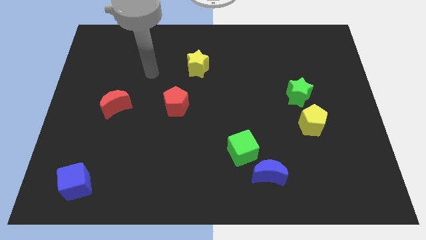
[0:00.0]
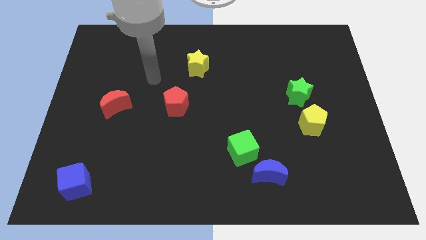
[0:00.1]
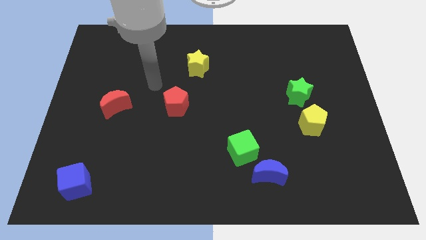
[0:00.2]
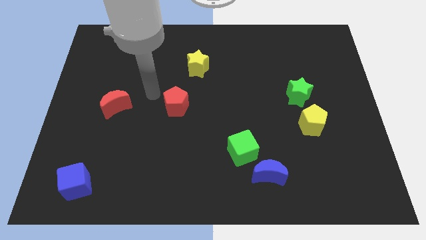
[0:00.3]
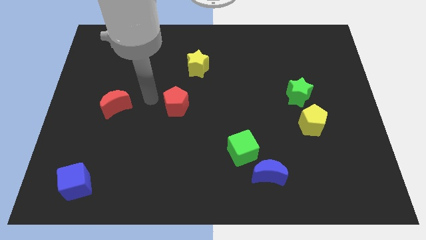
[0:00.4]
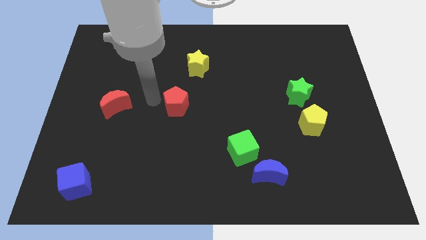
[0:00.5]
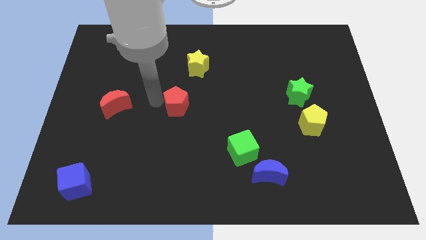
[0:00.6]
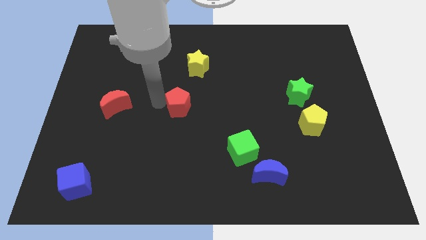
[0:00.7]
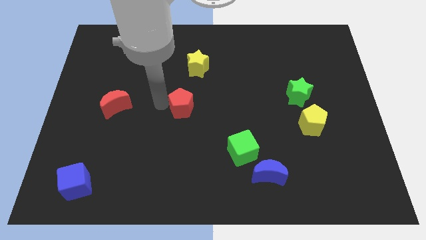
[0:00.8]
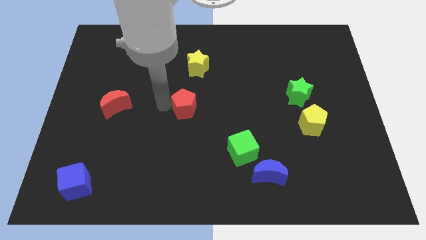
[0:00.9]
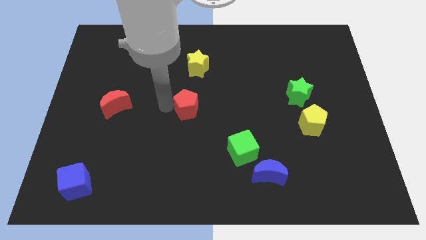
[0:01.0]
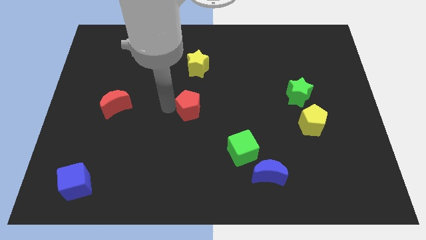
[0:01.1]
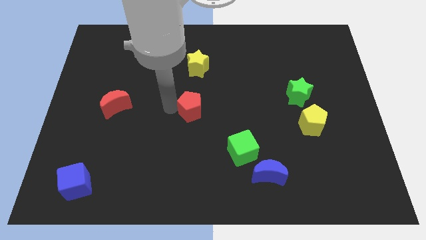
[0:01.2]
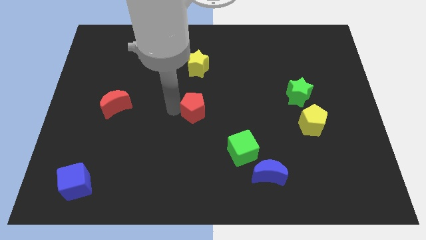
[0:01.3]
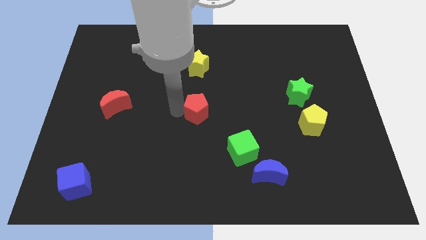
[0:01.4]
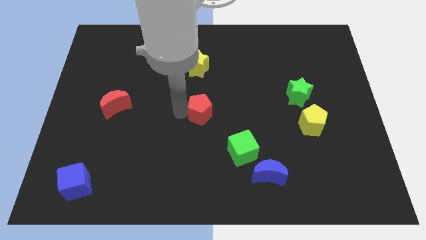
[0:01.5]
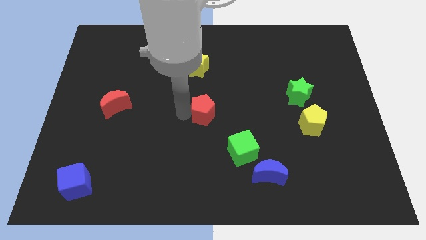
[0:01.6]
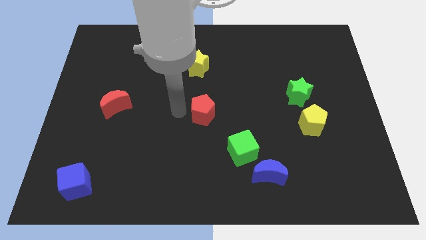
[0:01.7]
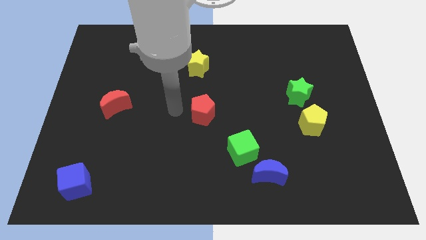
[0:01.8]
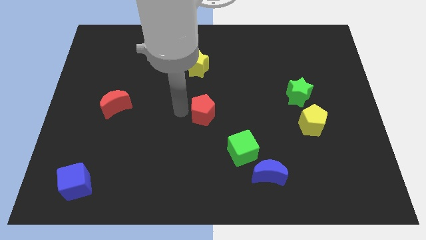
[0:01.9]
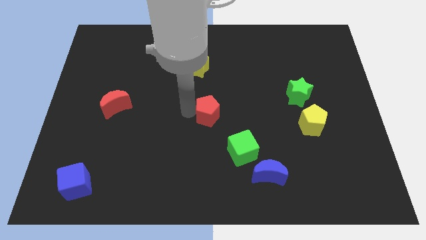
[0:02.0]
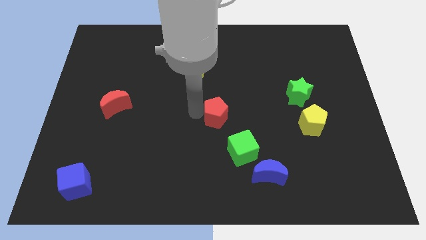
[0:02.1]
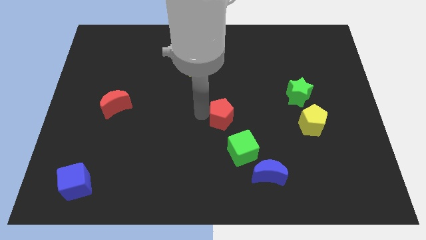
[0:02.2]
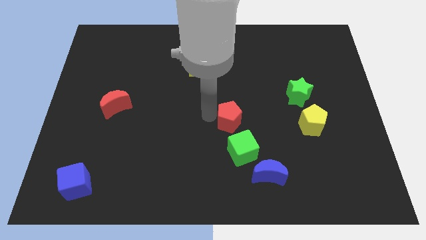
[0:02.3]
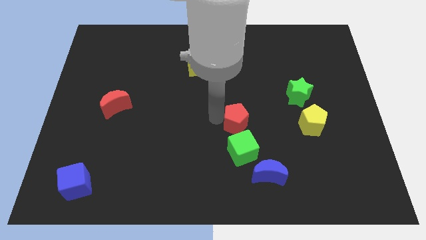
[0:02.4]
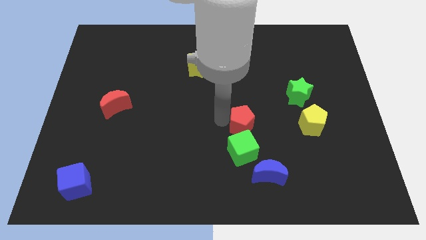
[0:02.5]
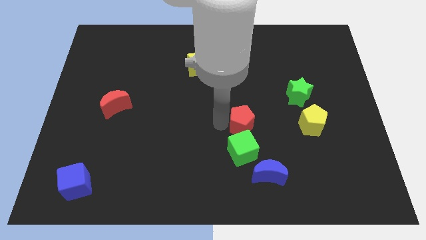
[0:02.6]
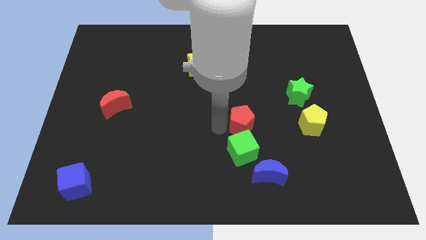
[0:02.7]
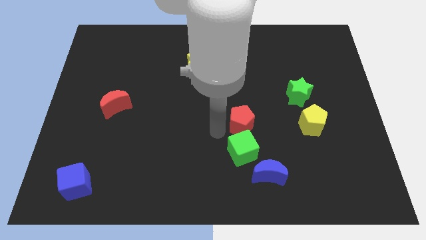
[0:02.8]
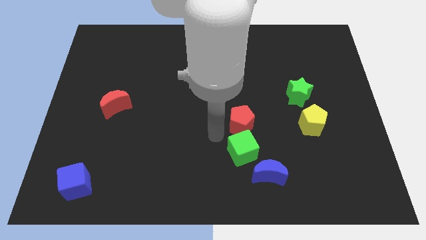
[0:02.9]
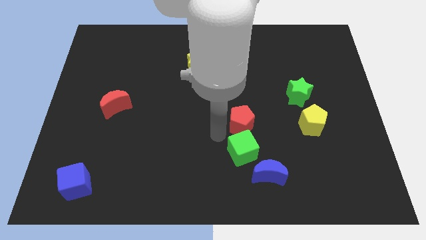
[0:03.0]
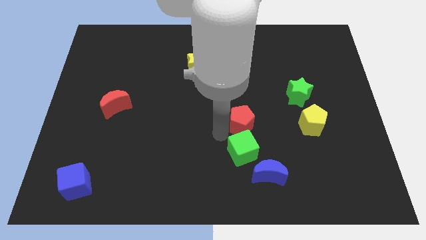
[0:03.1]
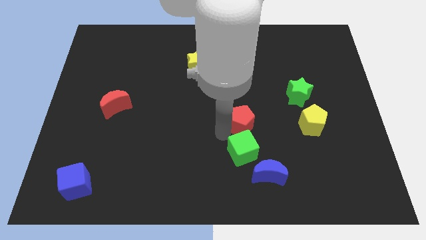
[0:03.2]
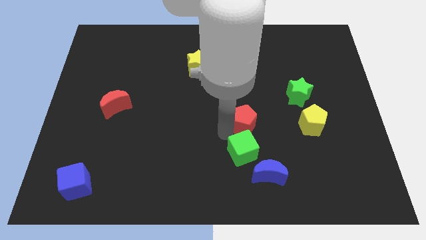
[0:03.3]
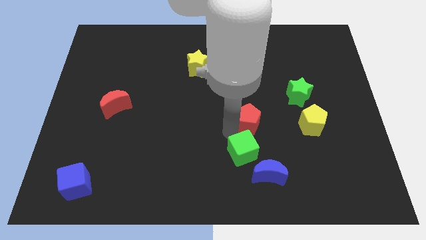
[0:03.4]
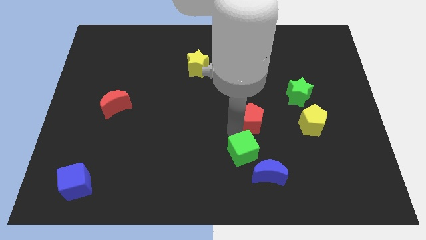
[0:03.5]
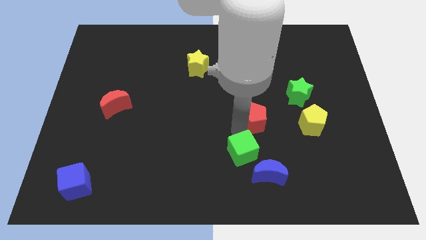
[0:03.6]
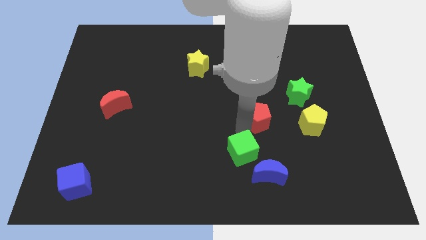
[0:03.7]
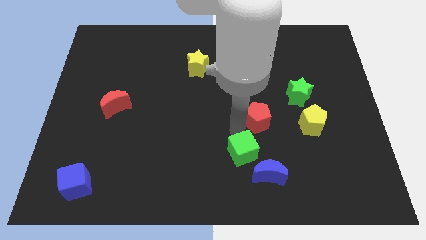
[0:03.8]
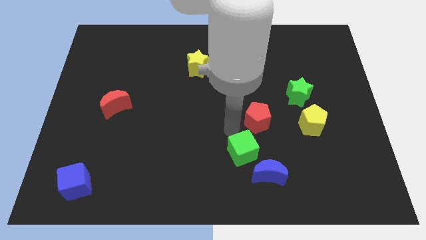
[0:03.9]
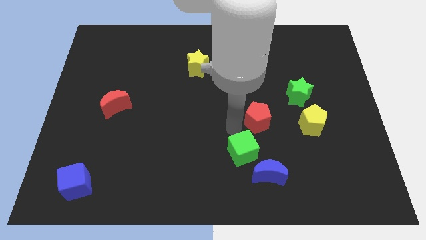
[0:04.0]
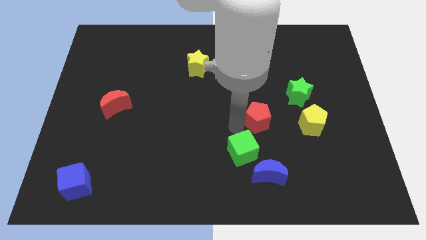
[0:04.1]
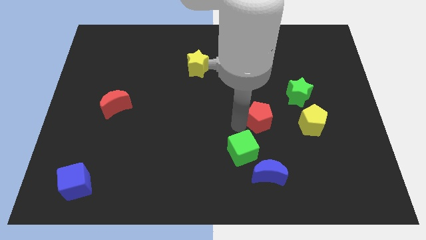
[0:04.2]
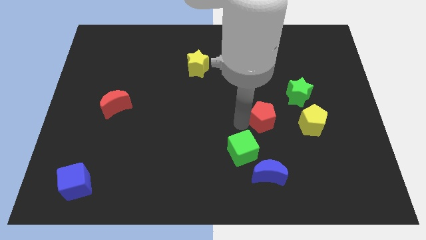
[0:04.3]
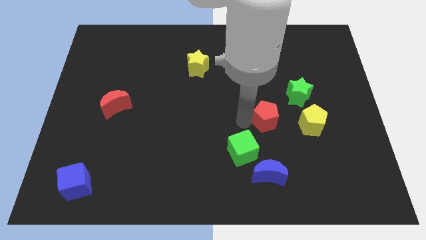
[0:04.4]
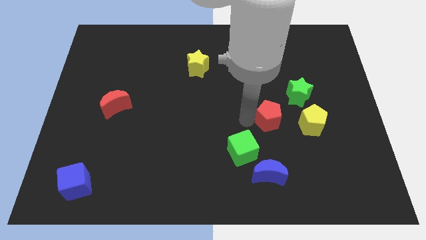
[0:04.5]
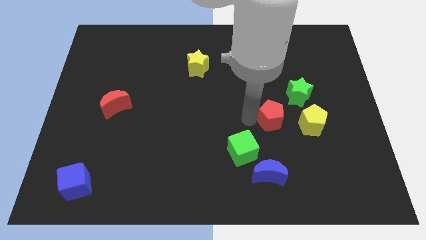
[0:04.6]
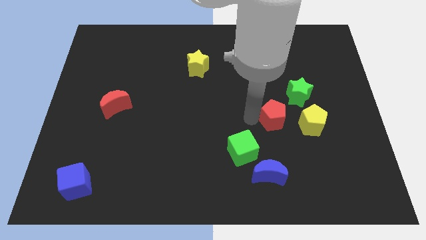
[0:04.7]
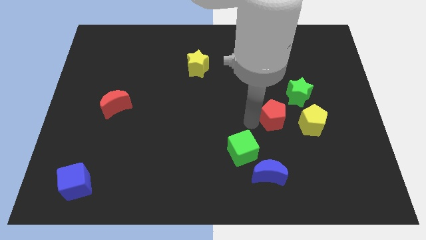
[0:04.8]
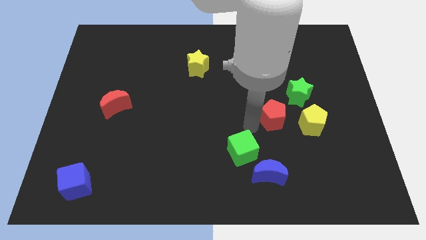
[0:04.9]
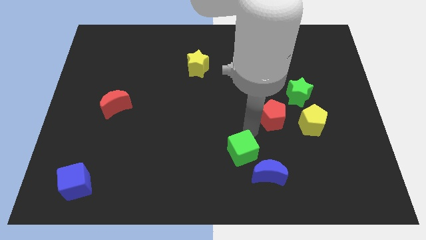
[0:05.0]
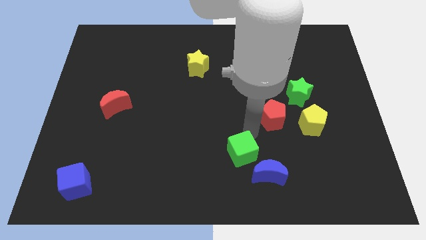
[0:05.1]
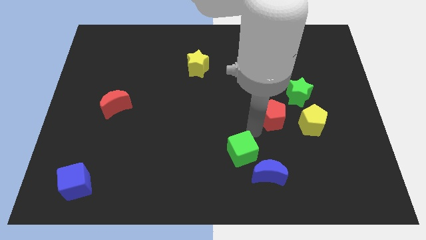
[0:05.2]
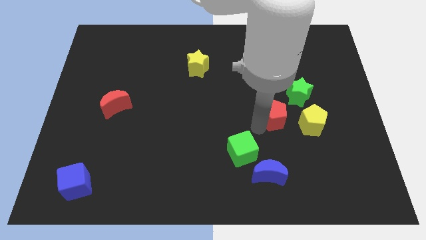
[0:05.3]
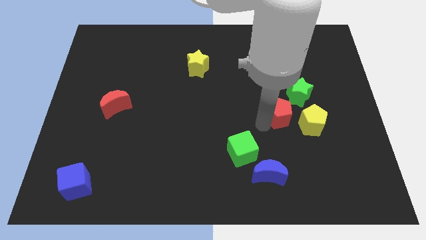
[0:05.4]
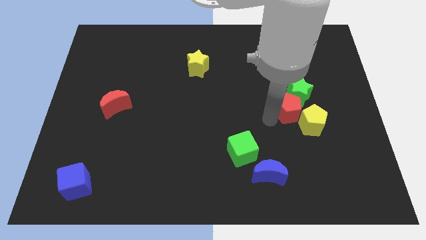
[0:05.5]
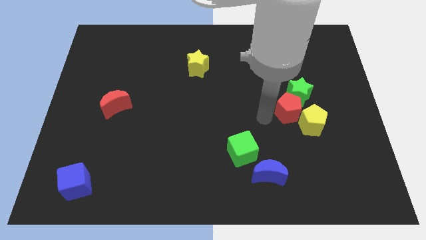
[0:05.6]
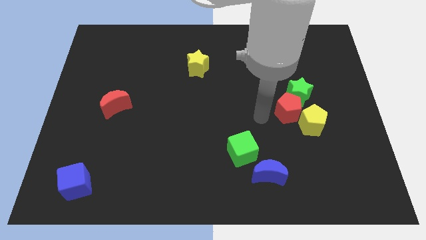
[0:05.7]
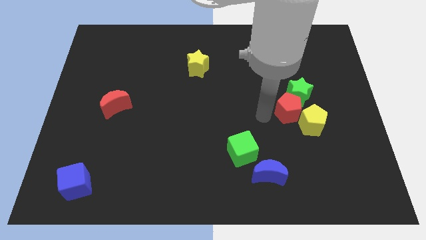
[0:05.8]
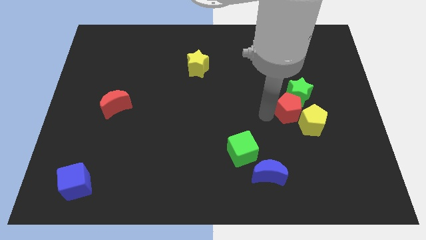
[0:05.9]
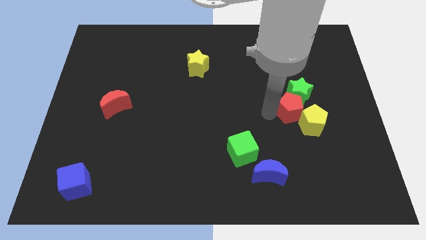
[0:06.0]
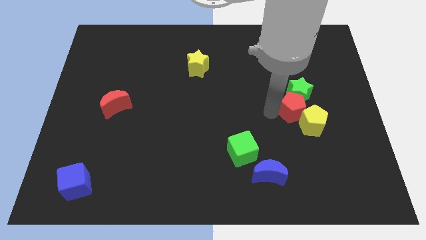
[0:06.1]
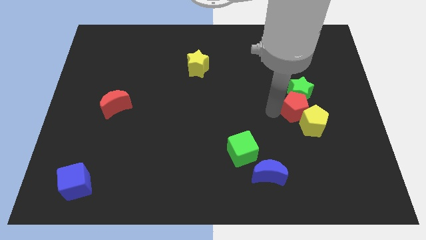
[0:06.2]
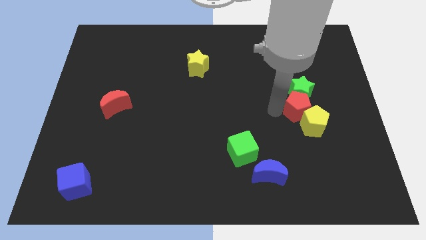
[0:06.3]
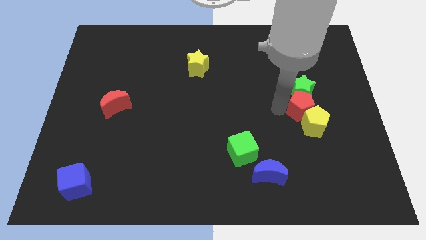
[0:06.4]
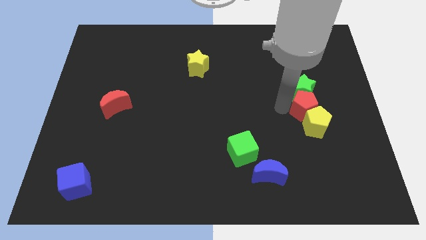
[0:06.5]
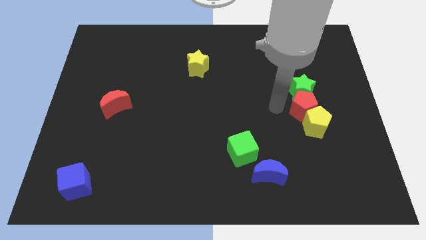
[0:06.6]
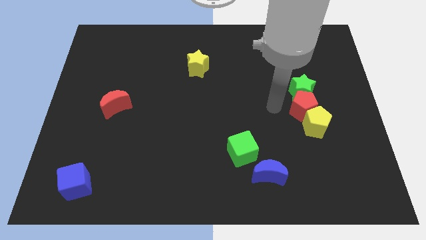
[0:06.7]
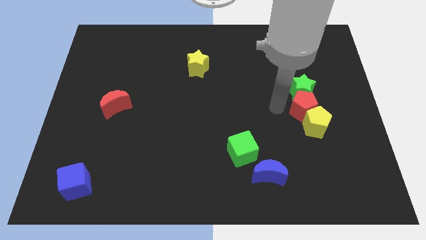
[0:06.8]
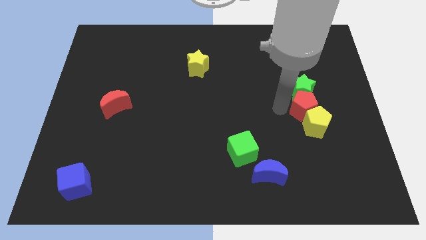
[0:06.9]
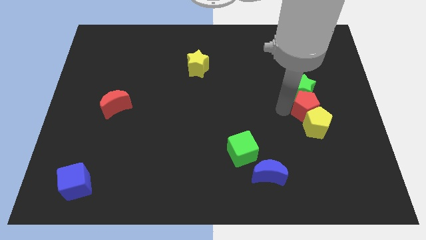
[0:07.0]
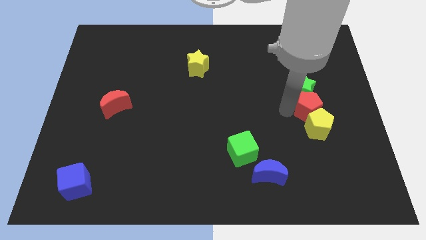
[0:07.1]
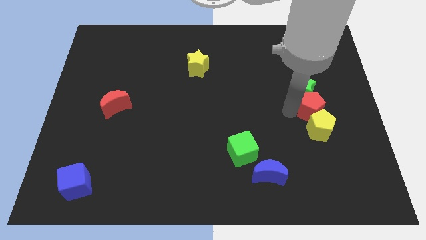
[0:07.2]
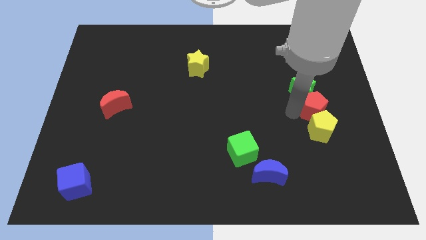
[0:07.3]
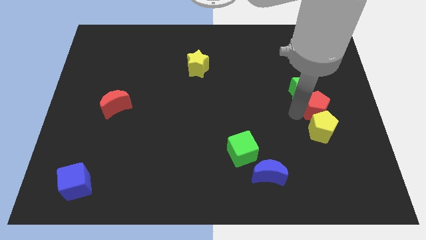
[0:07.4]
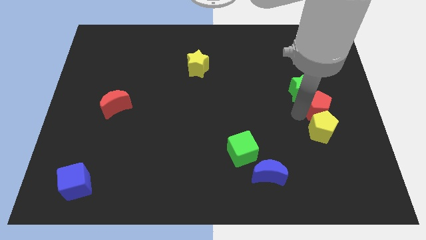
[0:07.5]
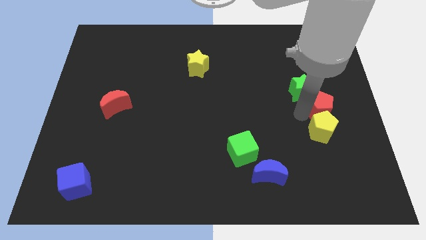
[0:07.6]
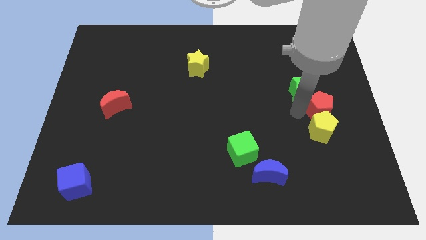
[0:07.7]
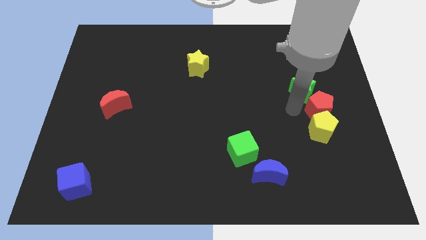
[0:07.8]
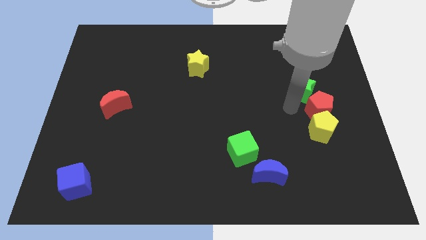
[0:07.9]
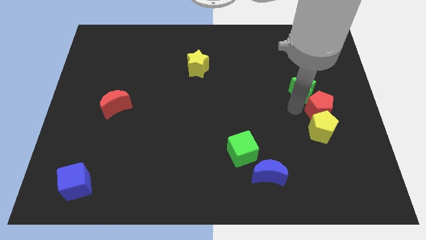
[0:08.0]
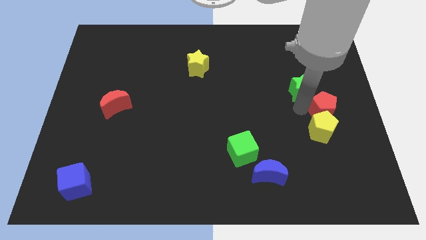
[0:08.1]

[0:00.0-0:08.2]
slide the red pentagon to the center right
